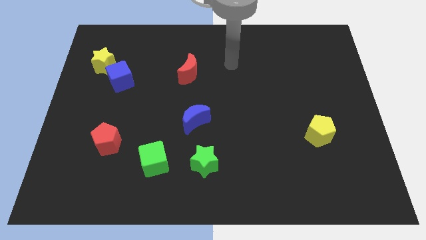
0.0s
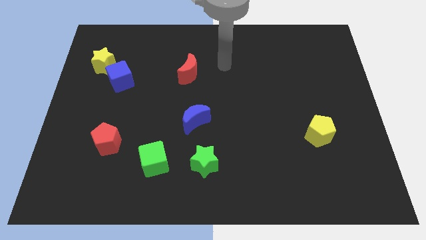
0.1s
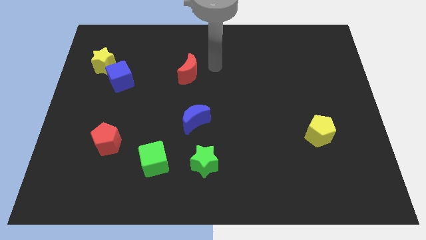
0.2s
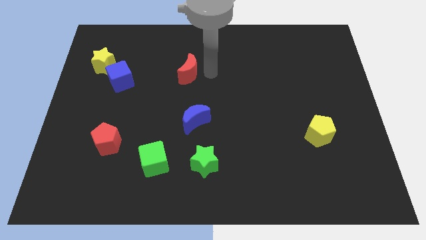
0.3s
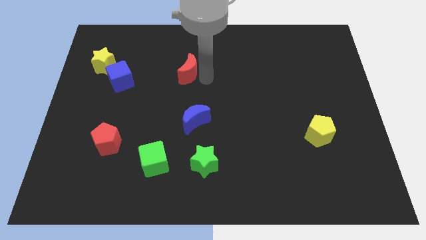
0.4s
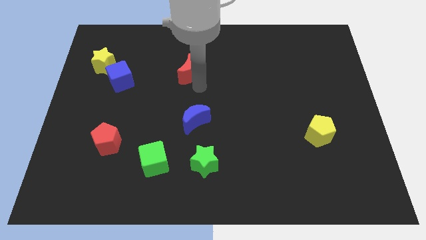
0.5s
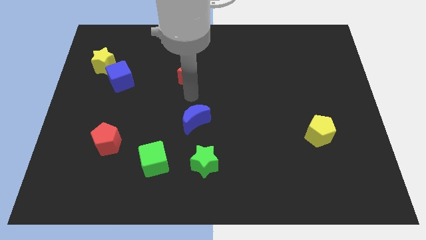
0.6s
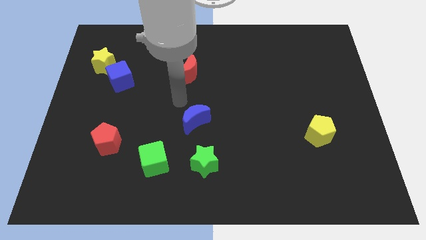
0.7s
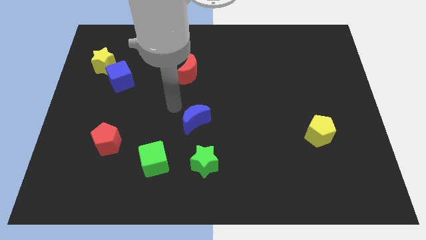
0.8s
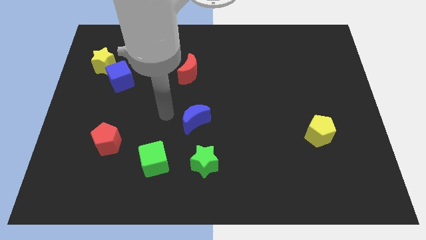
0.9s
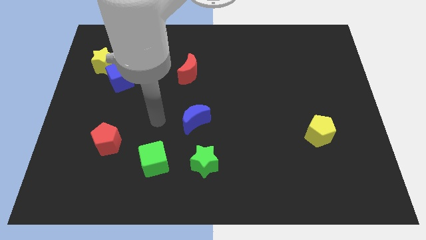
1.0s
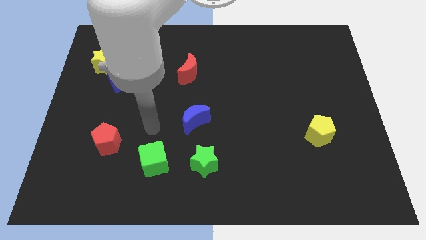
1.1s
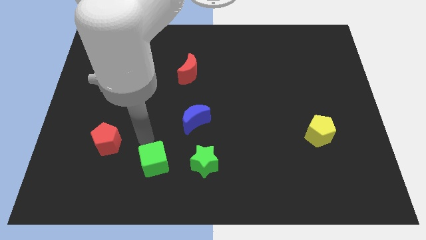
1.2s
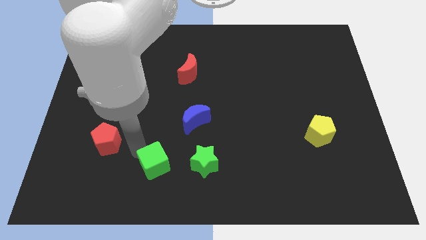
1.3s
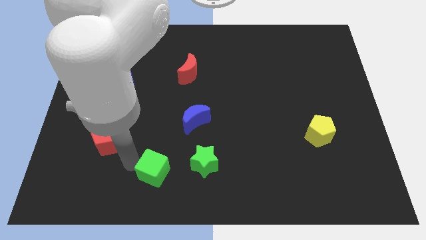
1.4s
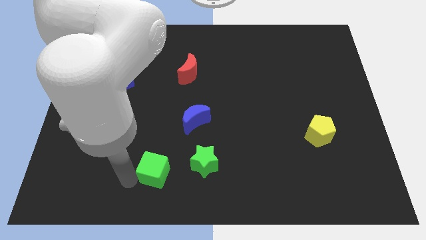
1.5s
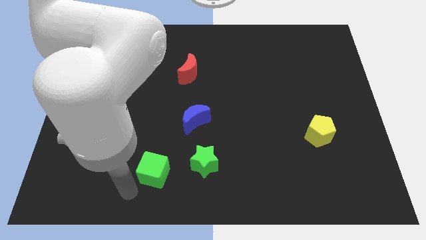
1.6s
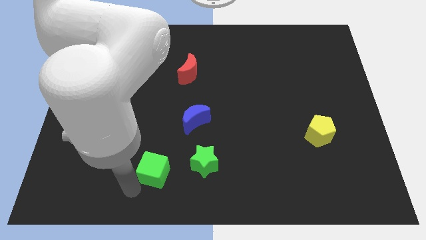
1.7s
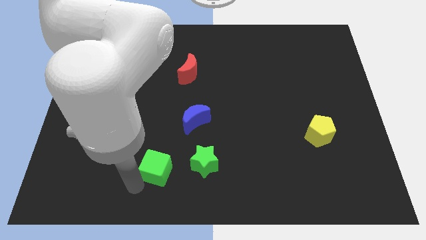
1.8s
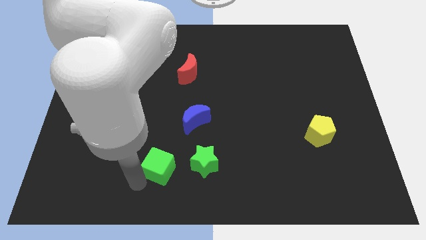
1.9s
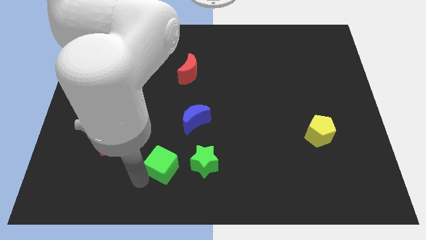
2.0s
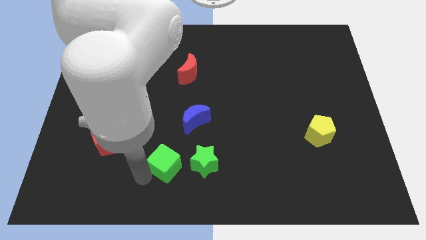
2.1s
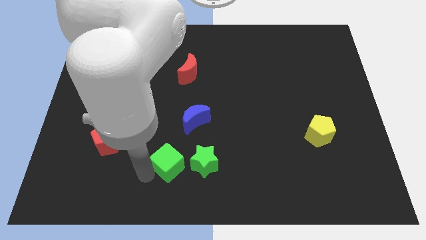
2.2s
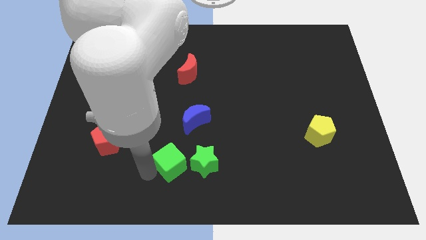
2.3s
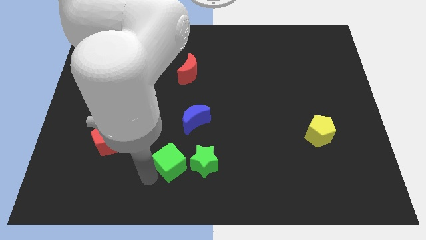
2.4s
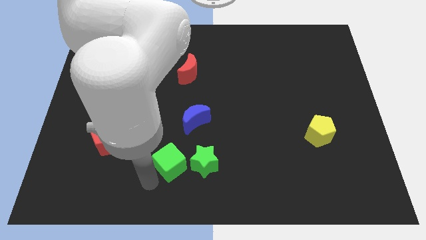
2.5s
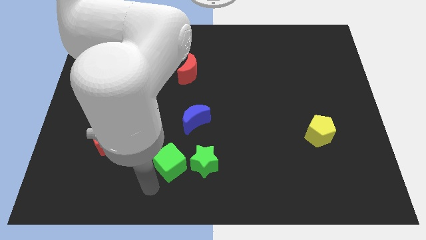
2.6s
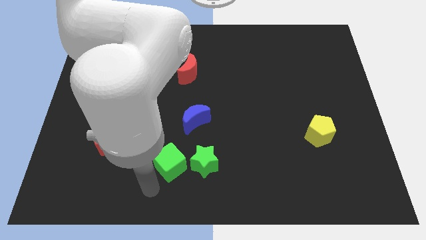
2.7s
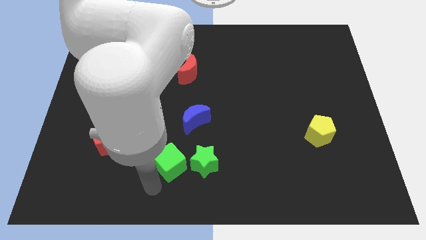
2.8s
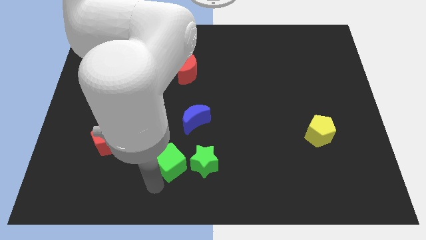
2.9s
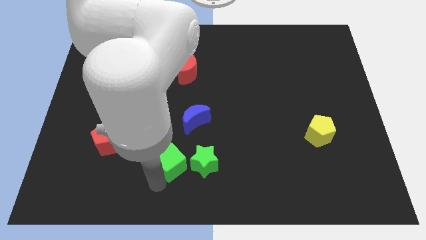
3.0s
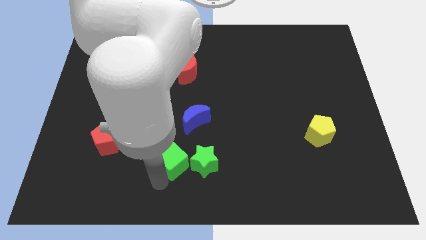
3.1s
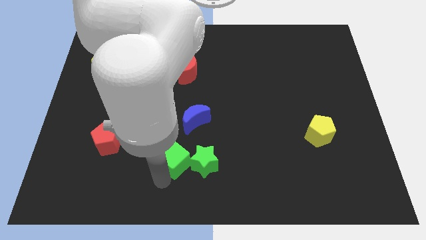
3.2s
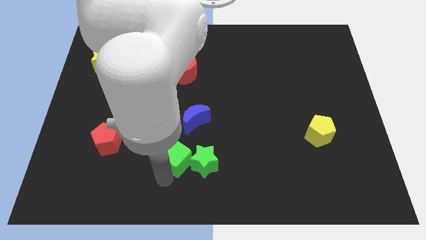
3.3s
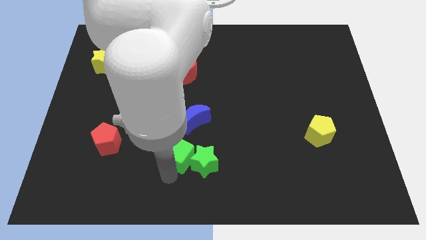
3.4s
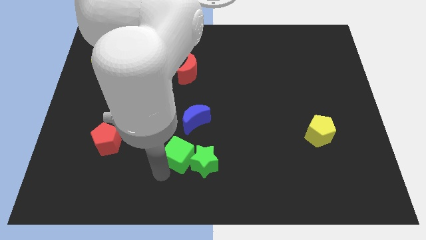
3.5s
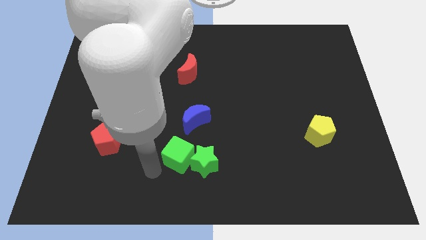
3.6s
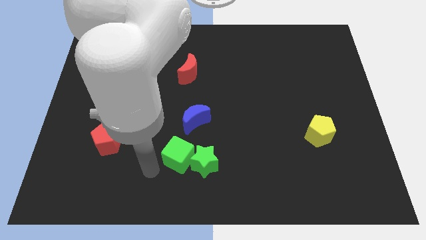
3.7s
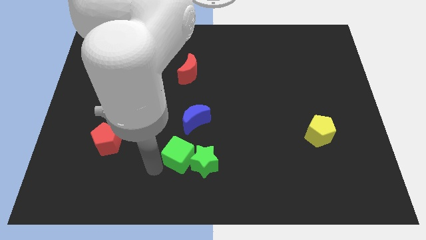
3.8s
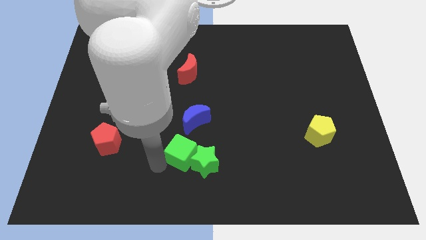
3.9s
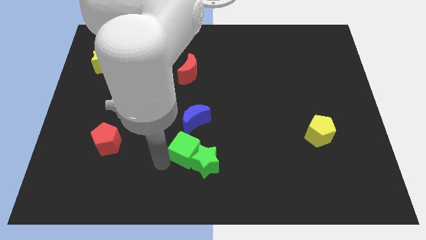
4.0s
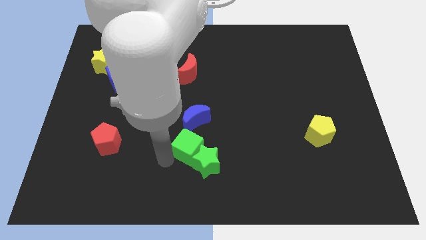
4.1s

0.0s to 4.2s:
slide the green cube a bit right

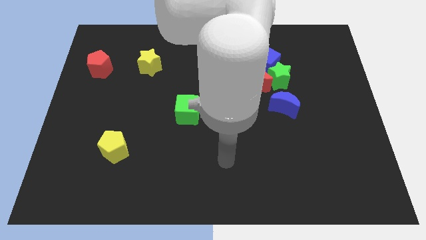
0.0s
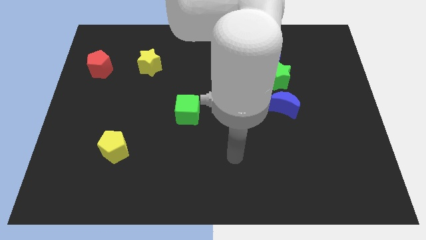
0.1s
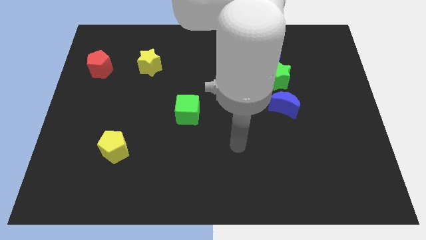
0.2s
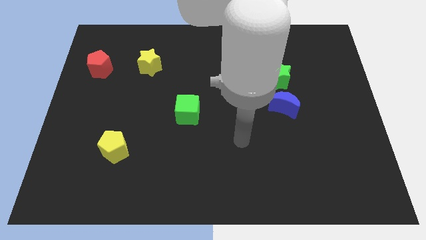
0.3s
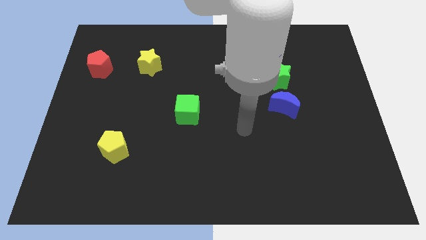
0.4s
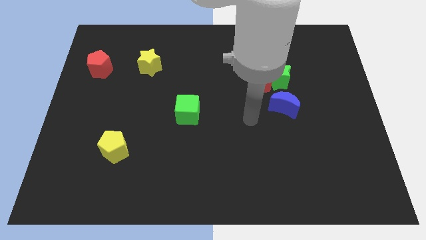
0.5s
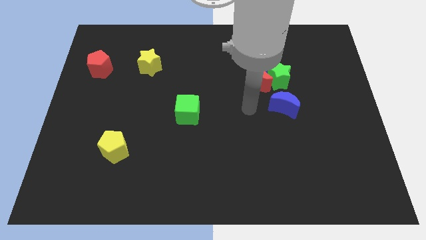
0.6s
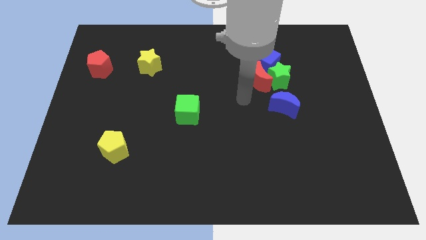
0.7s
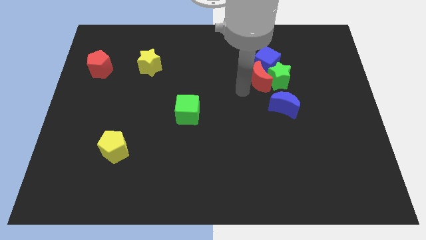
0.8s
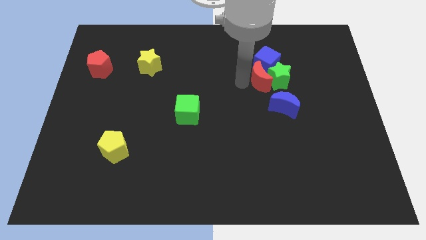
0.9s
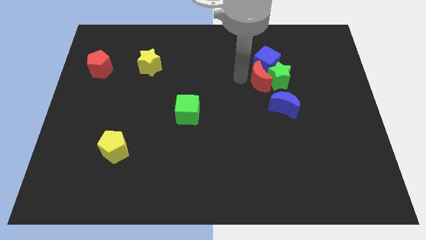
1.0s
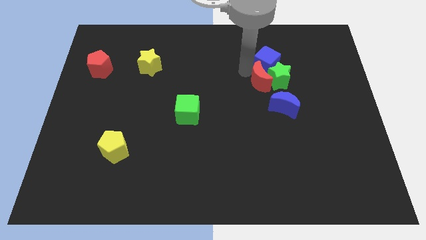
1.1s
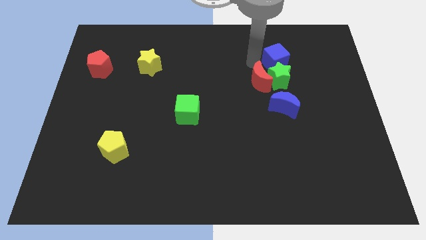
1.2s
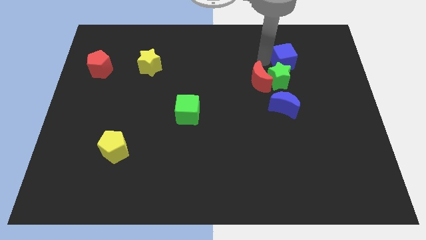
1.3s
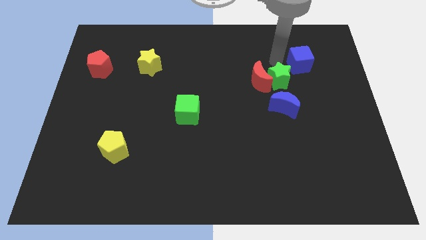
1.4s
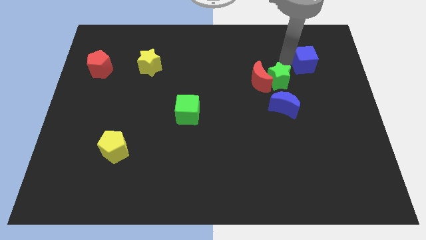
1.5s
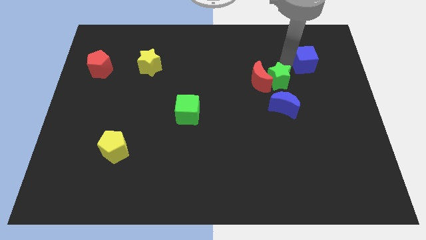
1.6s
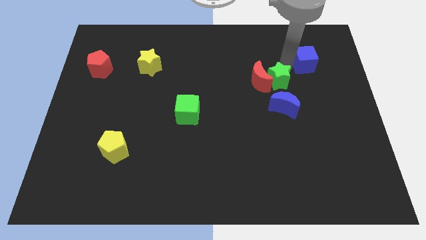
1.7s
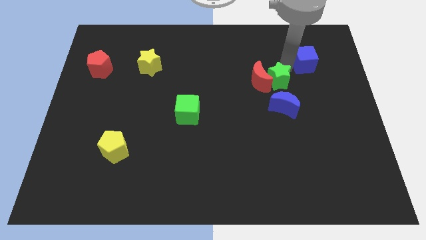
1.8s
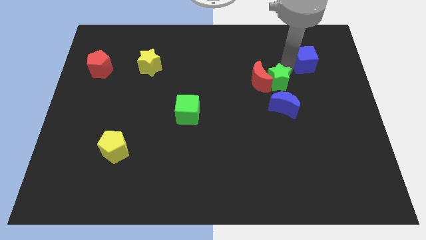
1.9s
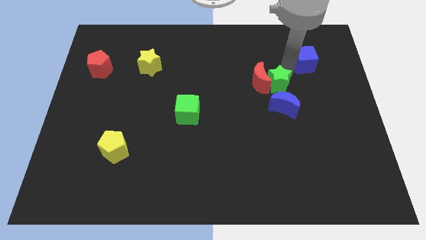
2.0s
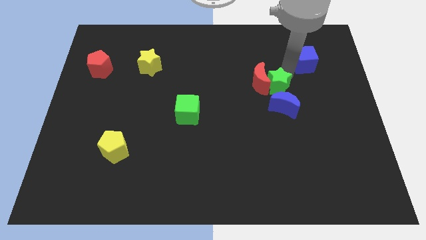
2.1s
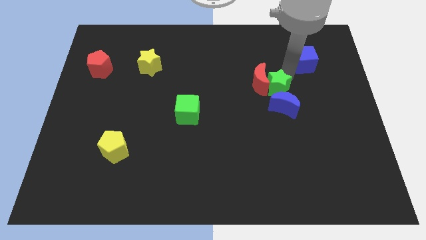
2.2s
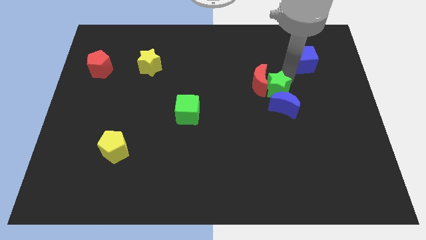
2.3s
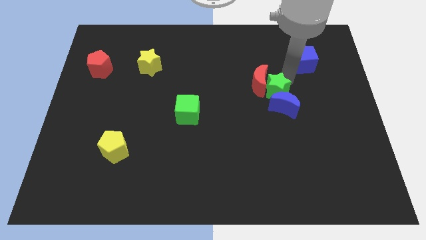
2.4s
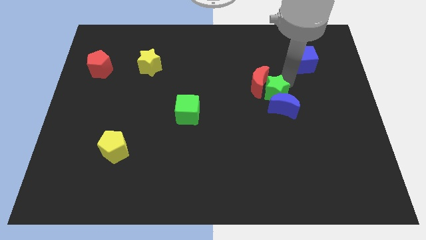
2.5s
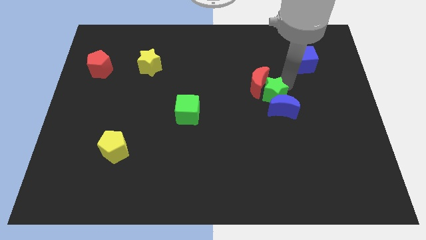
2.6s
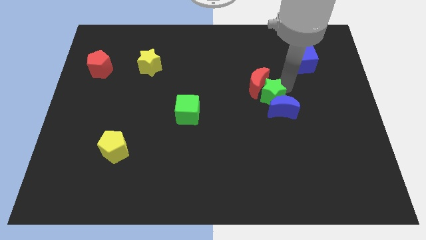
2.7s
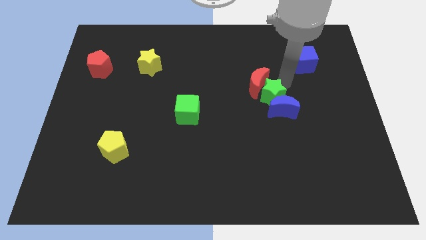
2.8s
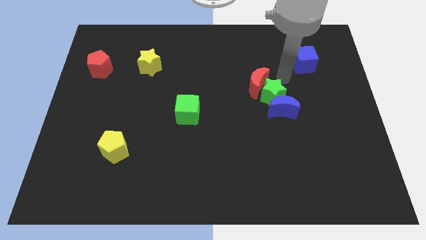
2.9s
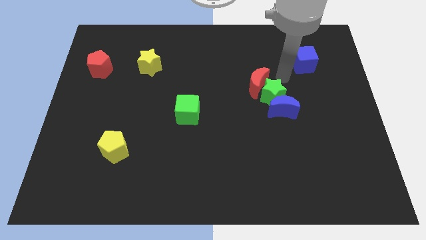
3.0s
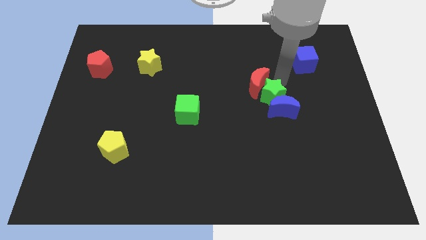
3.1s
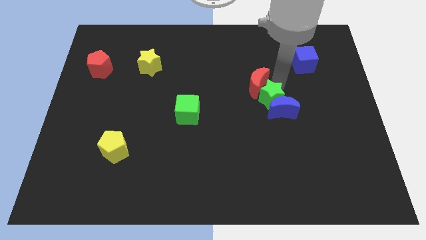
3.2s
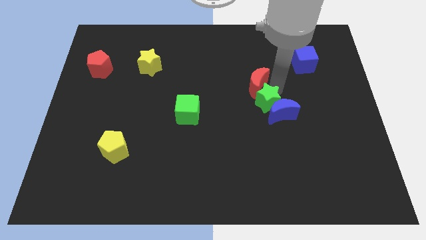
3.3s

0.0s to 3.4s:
slide the green star somewhat downwards

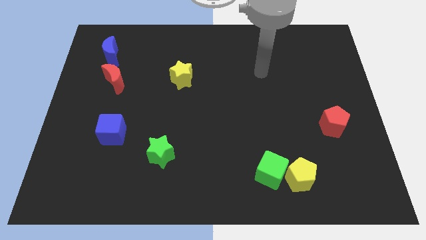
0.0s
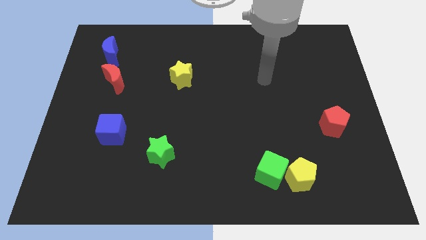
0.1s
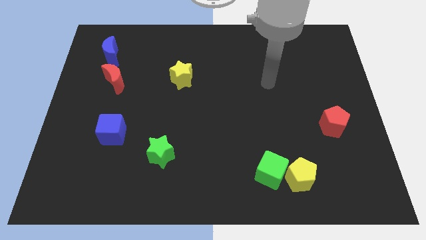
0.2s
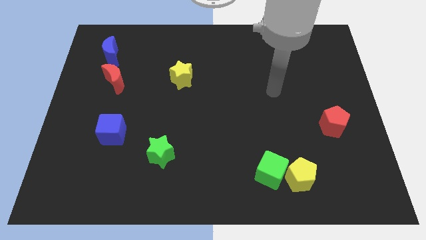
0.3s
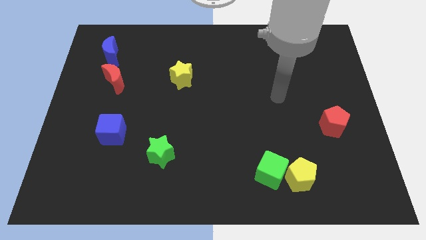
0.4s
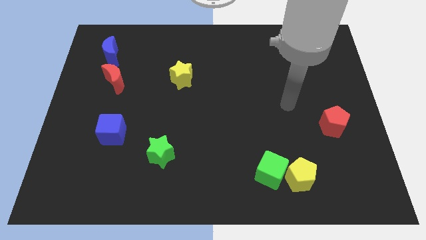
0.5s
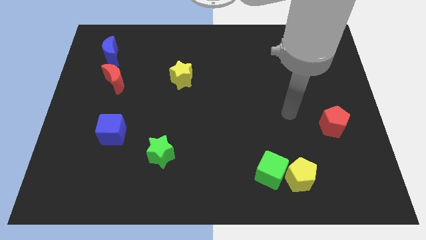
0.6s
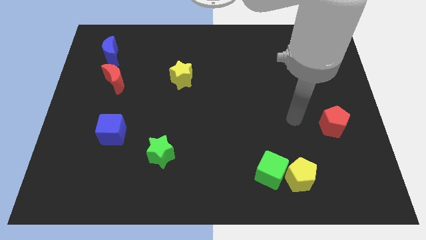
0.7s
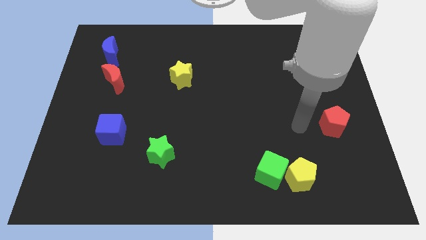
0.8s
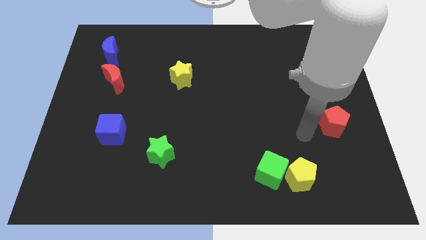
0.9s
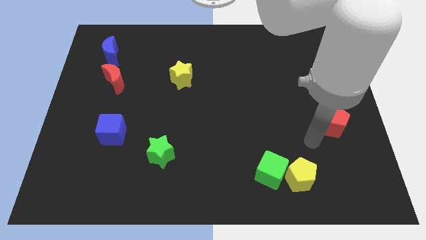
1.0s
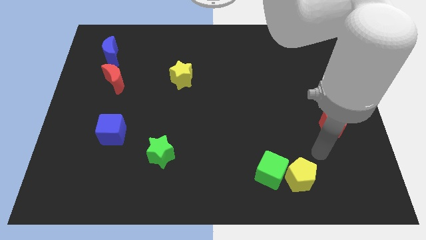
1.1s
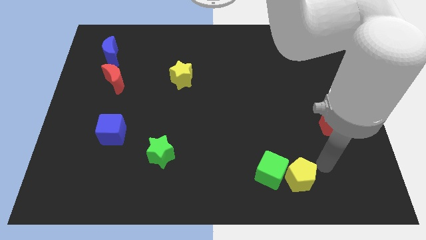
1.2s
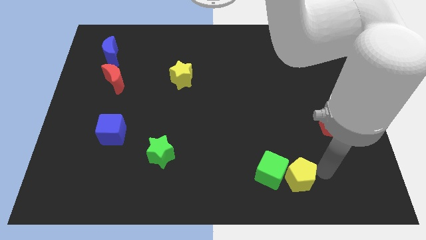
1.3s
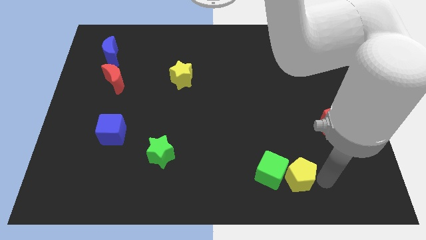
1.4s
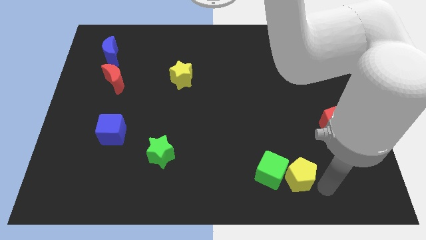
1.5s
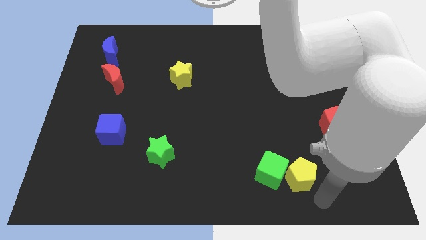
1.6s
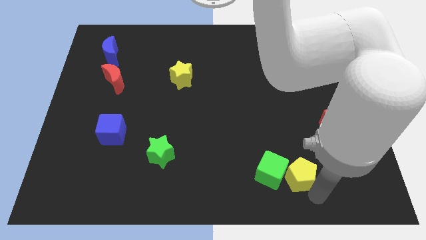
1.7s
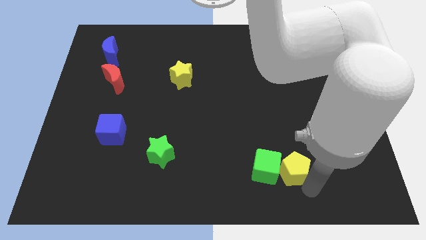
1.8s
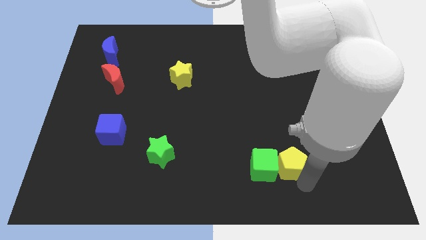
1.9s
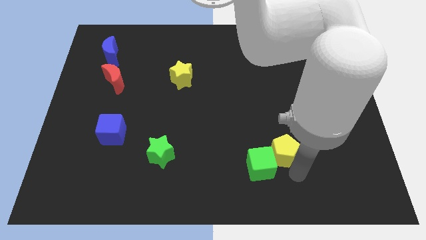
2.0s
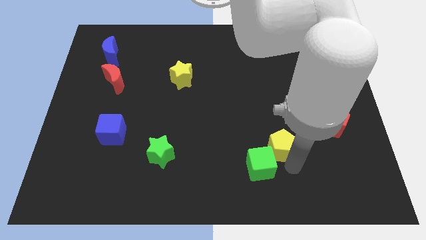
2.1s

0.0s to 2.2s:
move the yellow pentagon upwards and then left slightly
